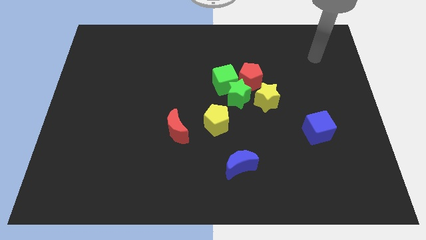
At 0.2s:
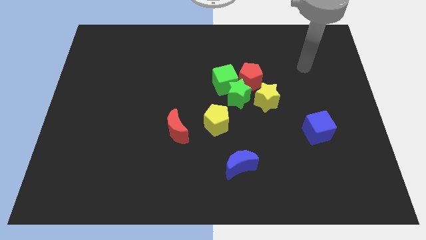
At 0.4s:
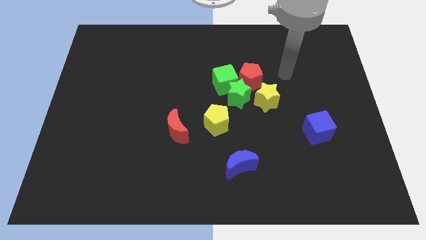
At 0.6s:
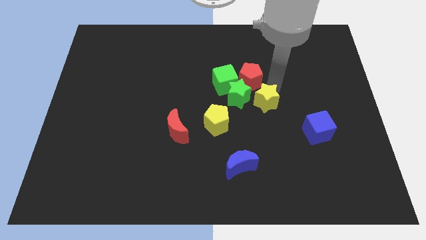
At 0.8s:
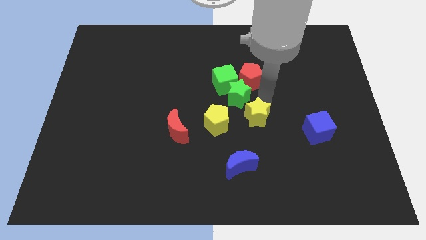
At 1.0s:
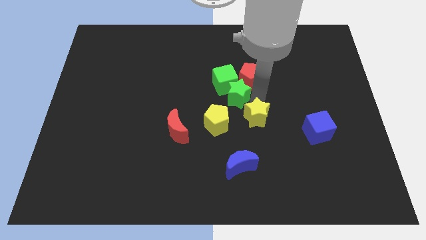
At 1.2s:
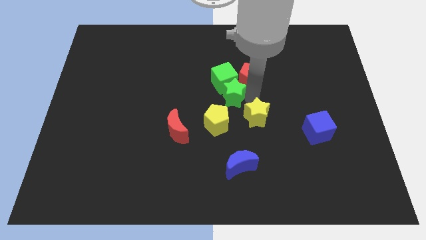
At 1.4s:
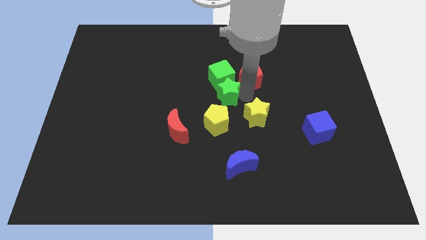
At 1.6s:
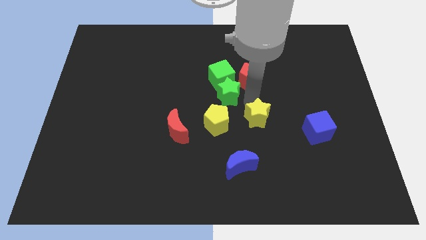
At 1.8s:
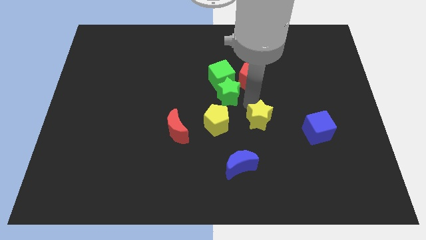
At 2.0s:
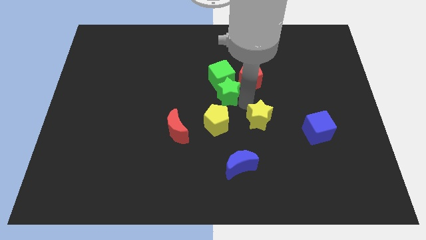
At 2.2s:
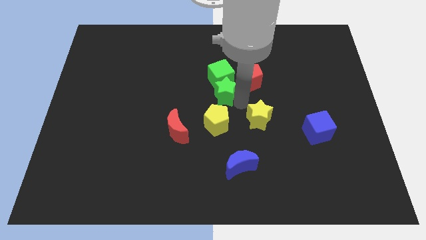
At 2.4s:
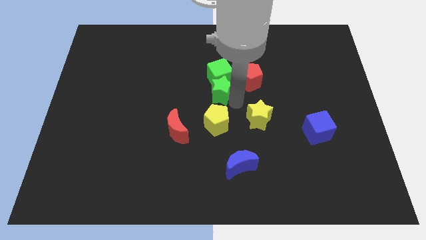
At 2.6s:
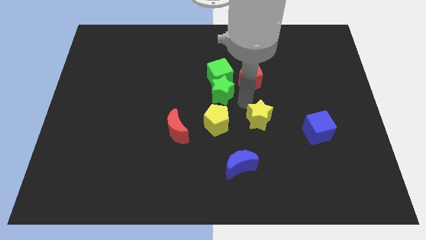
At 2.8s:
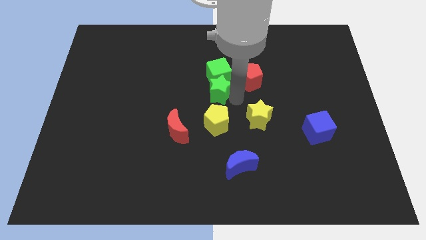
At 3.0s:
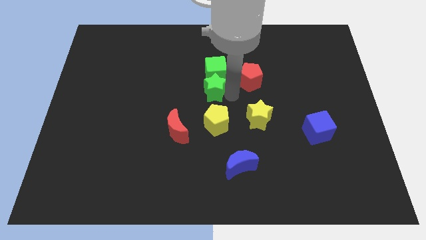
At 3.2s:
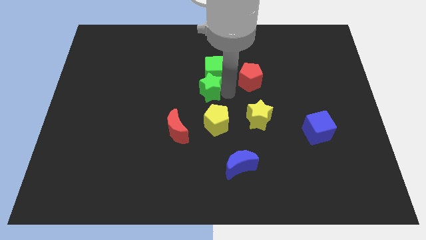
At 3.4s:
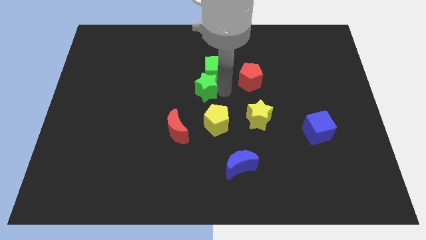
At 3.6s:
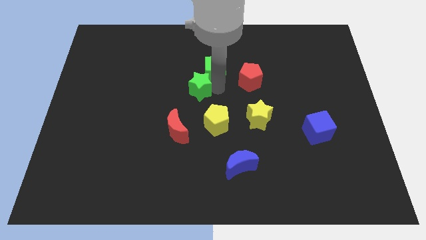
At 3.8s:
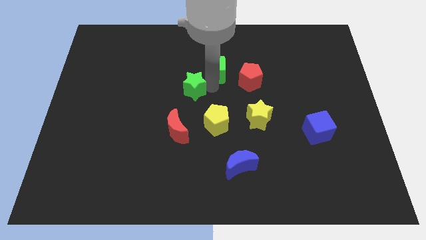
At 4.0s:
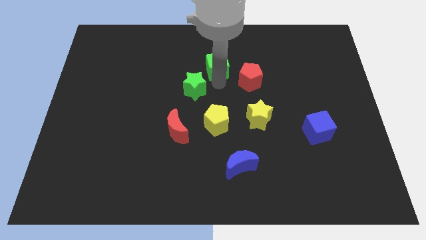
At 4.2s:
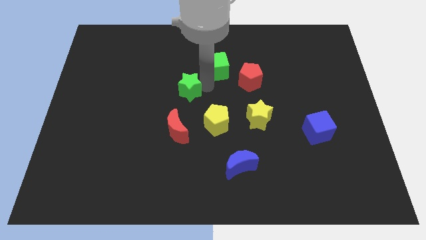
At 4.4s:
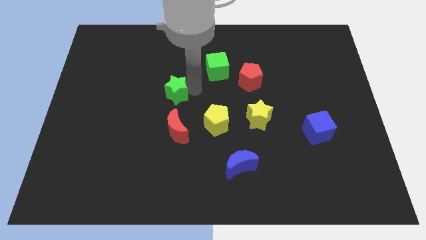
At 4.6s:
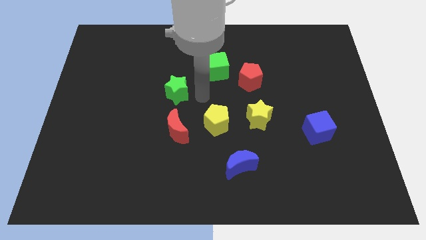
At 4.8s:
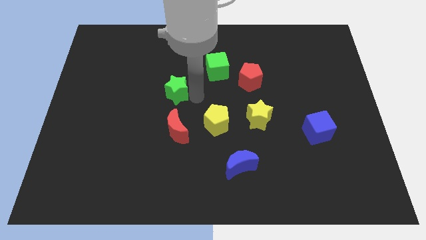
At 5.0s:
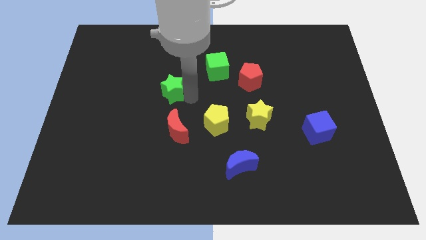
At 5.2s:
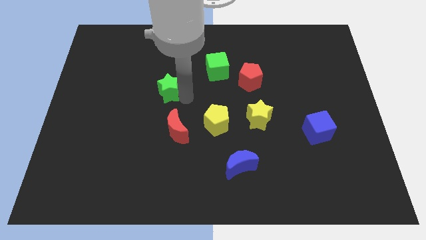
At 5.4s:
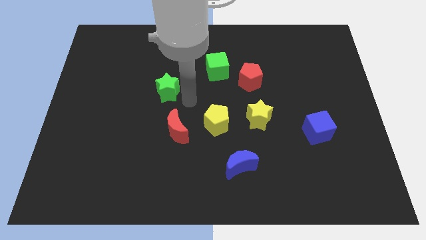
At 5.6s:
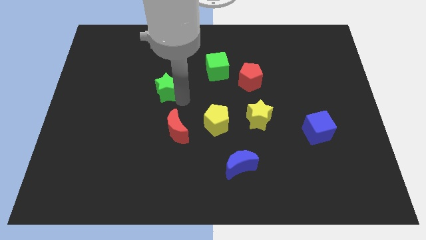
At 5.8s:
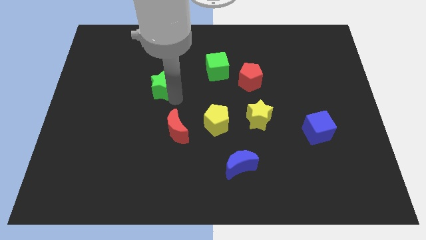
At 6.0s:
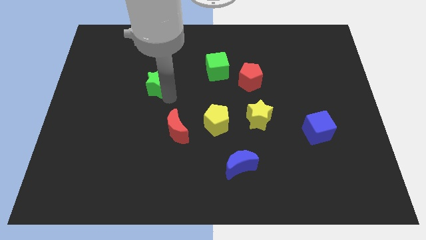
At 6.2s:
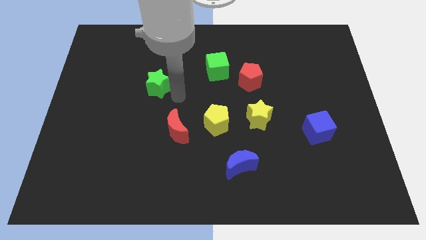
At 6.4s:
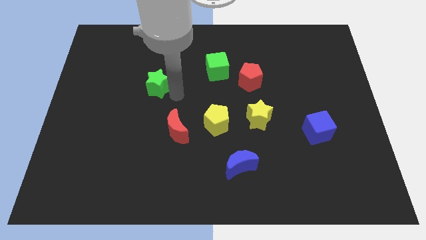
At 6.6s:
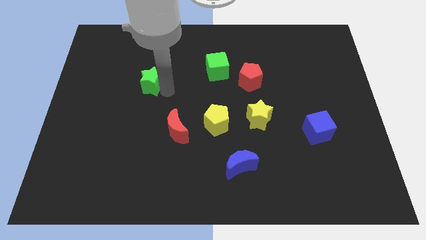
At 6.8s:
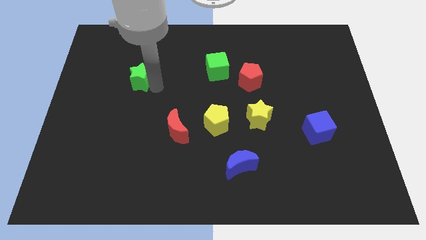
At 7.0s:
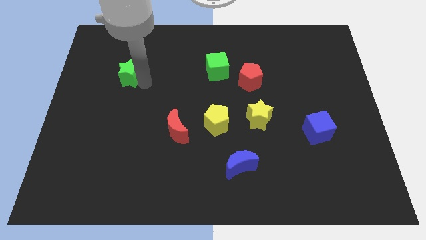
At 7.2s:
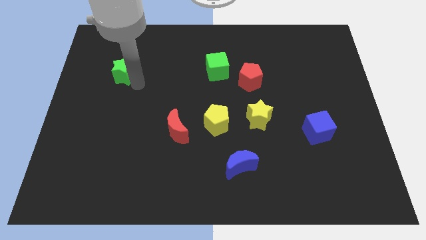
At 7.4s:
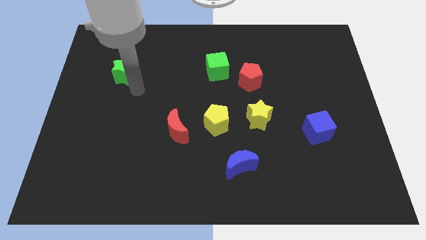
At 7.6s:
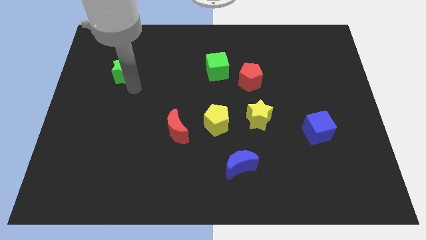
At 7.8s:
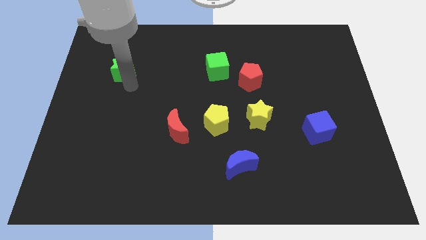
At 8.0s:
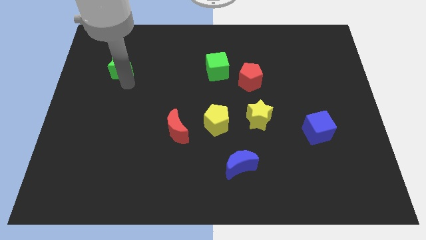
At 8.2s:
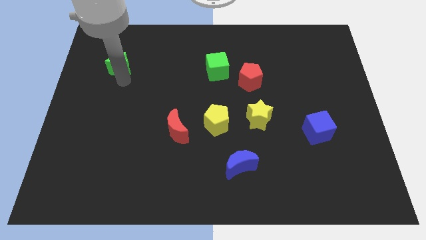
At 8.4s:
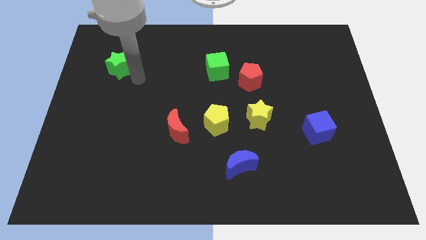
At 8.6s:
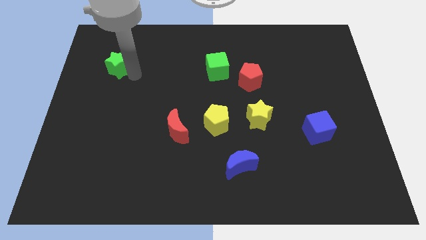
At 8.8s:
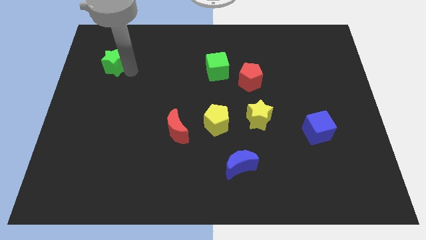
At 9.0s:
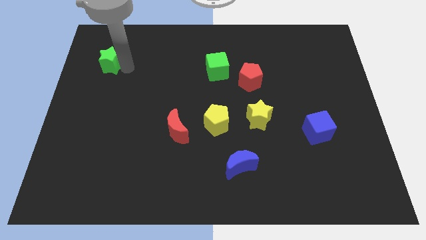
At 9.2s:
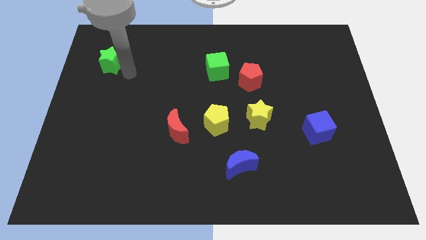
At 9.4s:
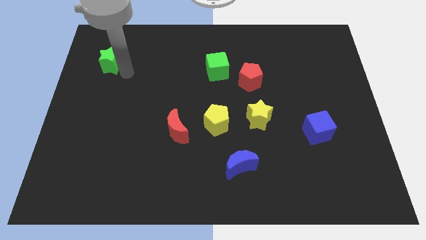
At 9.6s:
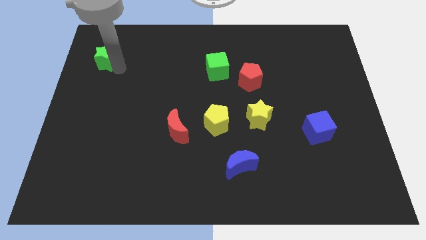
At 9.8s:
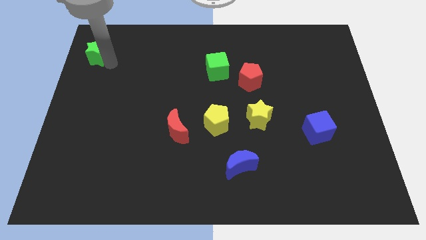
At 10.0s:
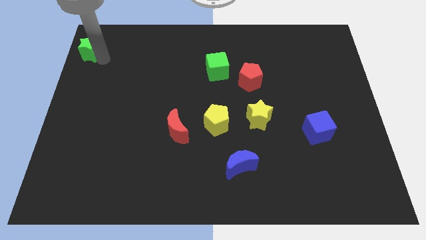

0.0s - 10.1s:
push the green star to the top left of the board

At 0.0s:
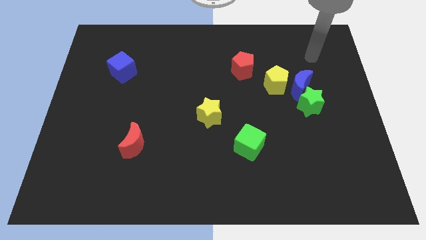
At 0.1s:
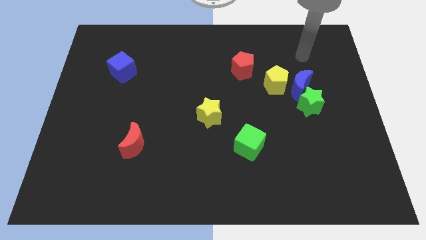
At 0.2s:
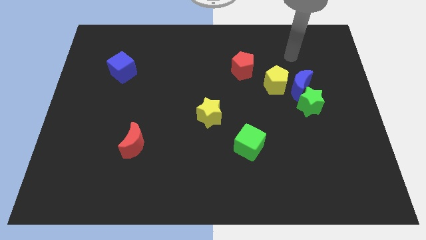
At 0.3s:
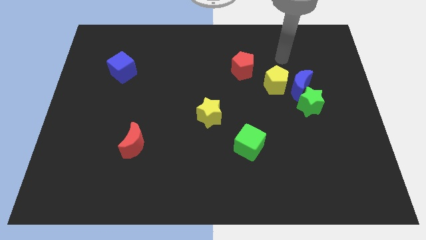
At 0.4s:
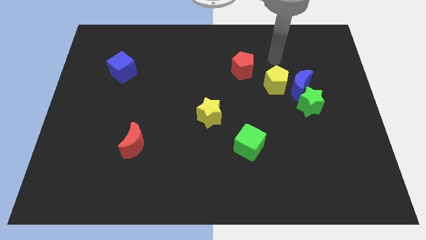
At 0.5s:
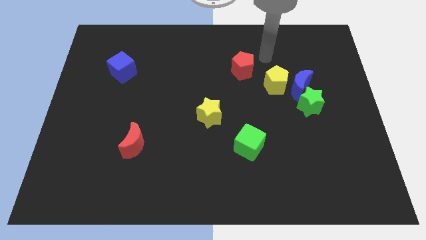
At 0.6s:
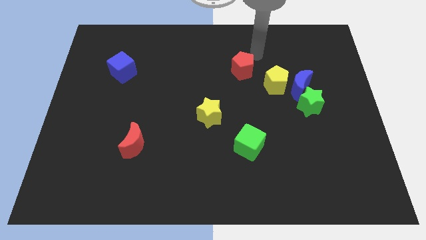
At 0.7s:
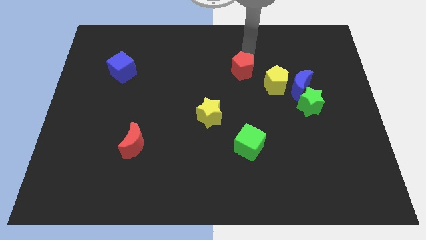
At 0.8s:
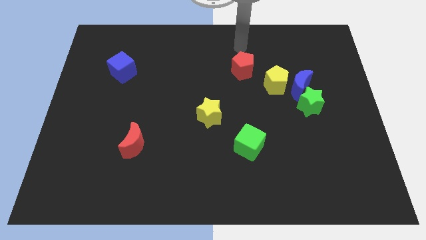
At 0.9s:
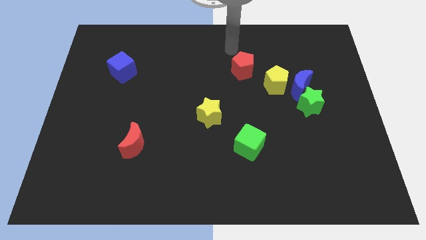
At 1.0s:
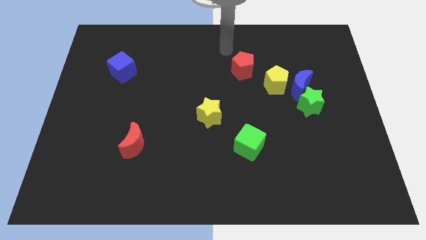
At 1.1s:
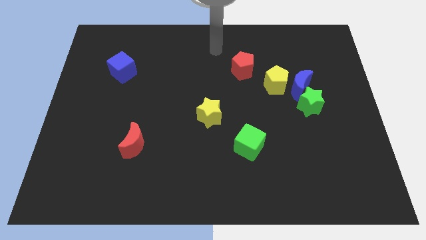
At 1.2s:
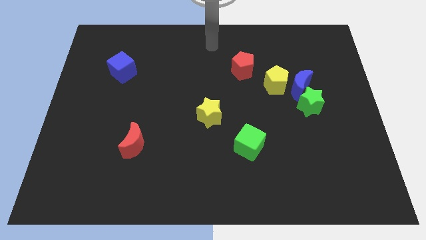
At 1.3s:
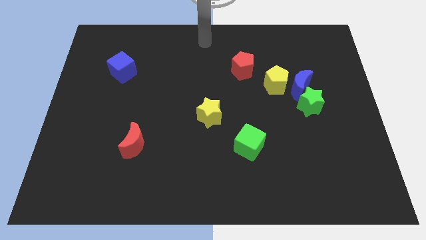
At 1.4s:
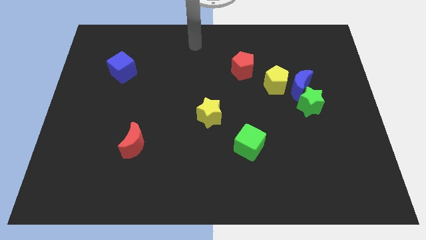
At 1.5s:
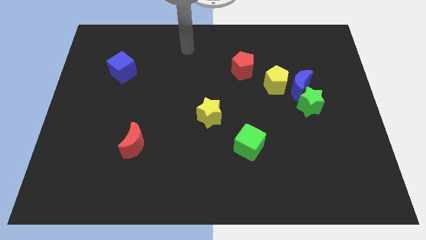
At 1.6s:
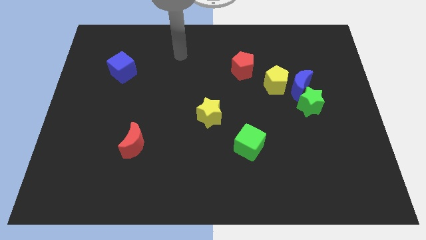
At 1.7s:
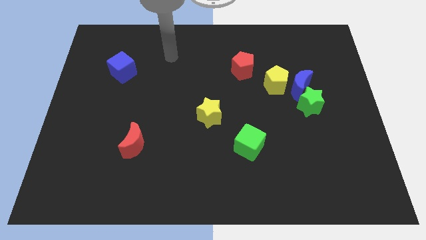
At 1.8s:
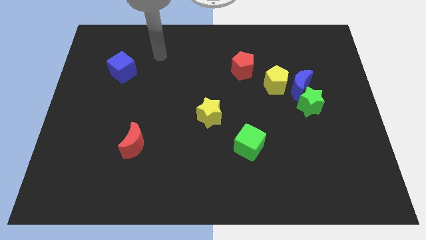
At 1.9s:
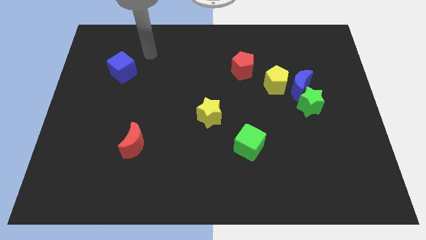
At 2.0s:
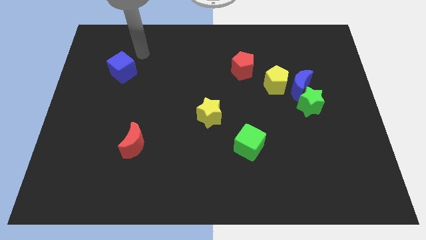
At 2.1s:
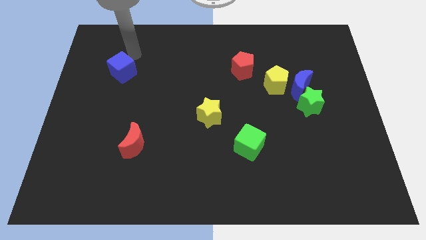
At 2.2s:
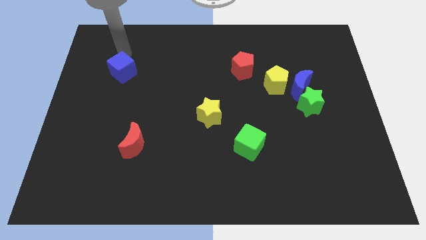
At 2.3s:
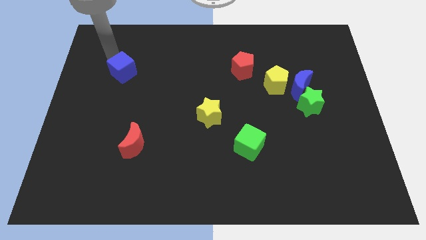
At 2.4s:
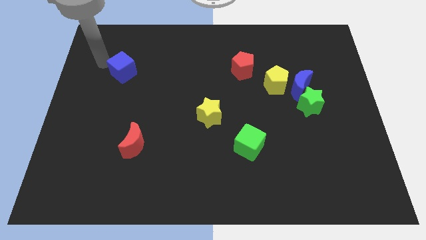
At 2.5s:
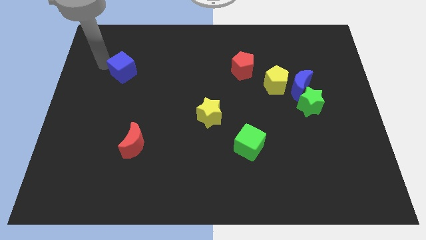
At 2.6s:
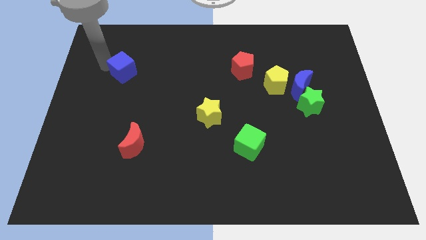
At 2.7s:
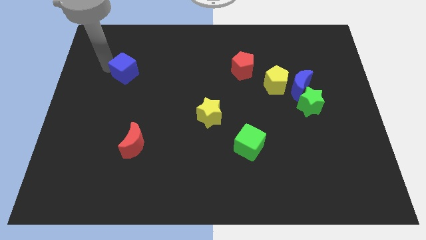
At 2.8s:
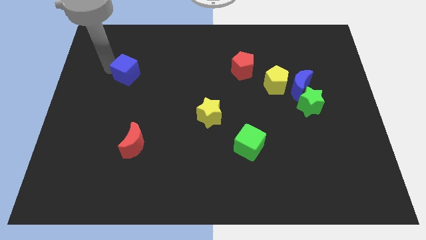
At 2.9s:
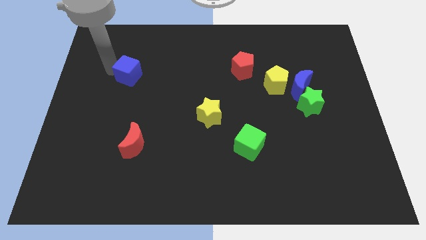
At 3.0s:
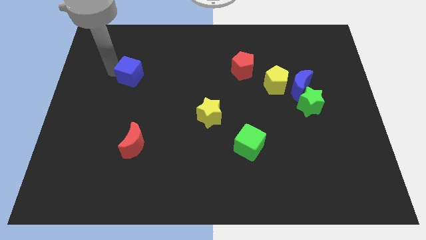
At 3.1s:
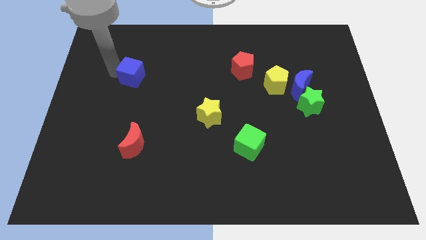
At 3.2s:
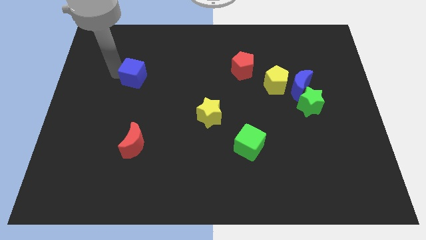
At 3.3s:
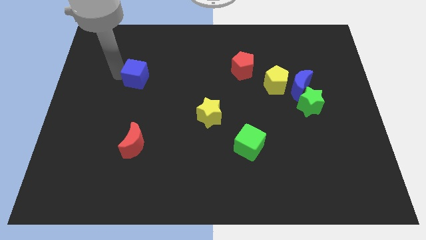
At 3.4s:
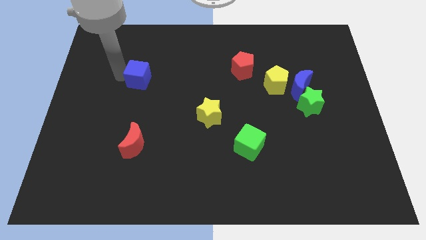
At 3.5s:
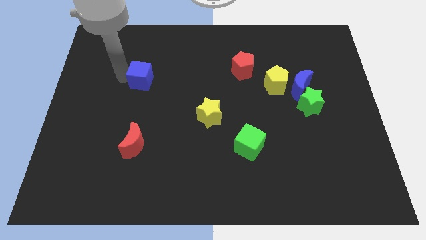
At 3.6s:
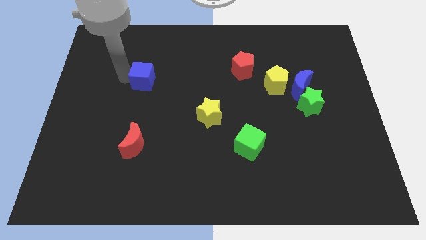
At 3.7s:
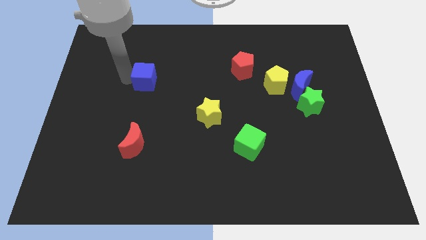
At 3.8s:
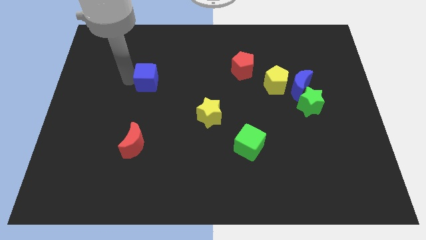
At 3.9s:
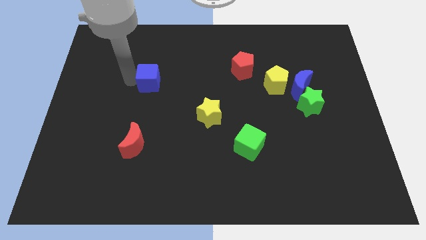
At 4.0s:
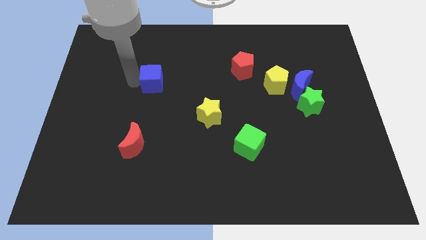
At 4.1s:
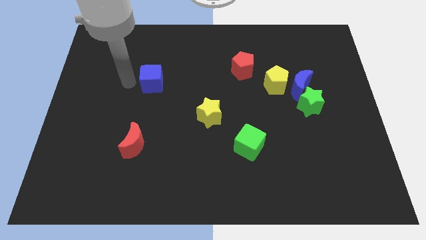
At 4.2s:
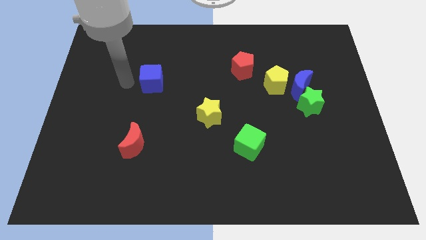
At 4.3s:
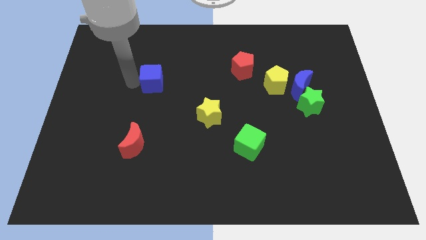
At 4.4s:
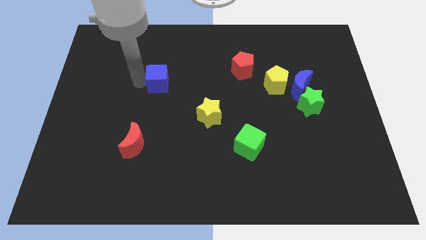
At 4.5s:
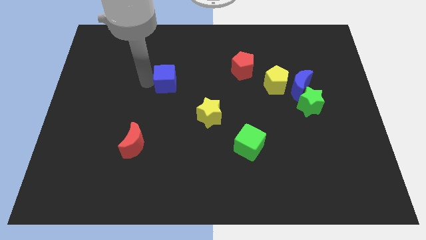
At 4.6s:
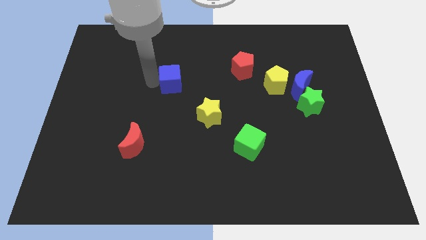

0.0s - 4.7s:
put the blue cube to the middle of the board
